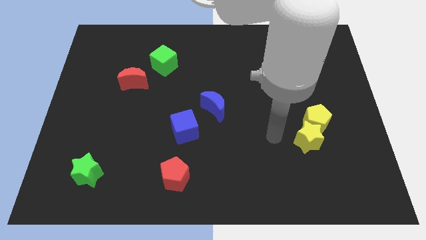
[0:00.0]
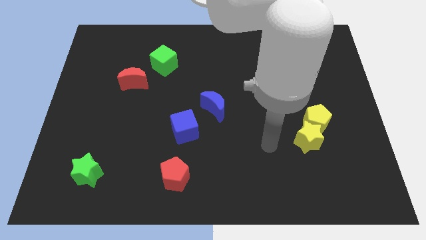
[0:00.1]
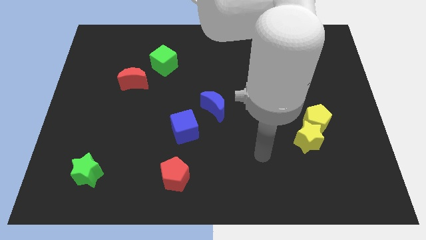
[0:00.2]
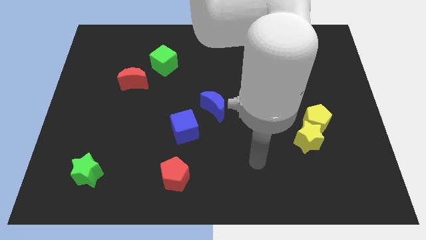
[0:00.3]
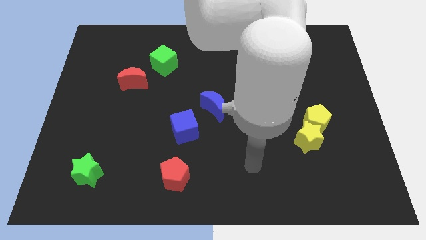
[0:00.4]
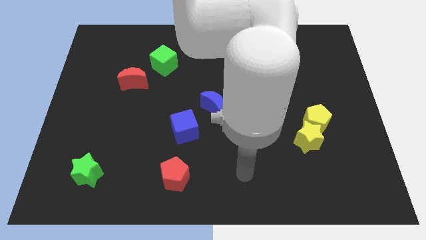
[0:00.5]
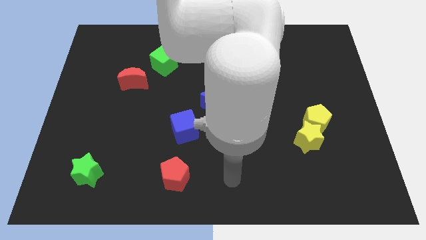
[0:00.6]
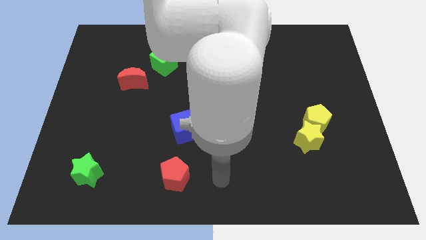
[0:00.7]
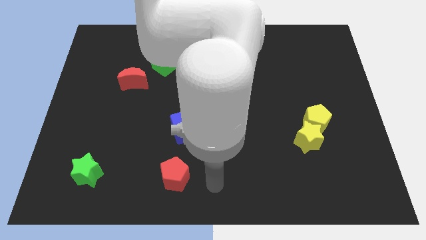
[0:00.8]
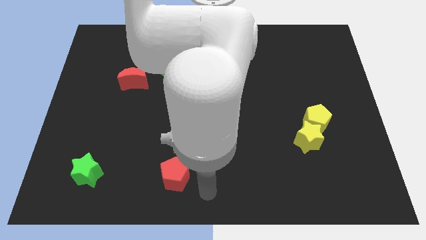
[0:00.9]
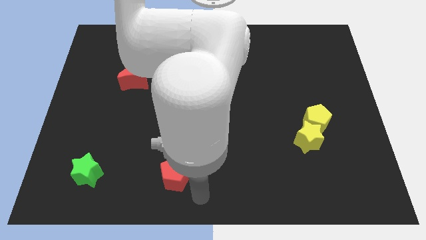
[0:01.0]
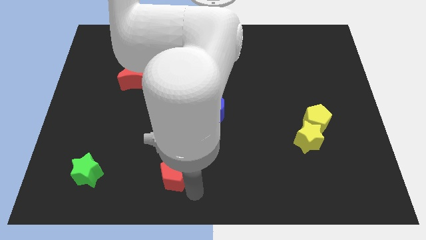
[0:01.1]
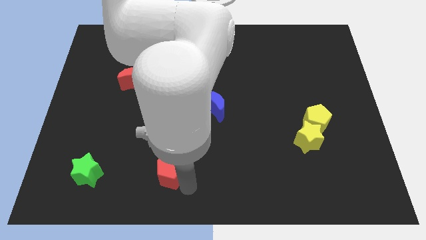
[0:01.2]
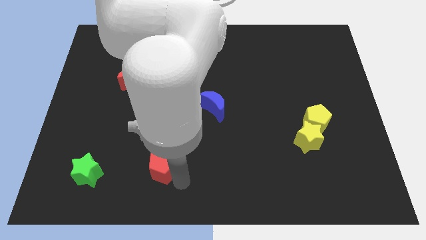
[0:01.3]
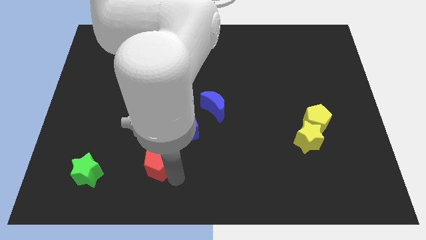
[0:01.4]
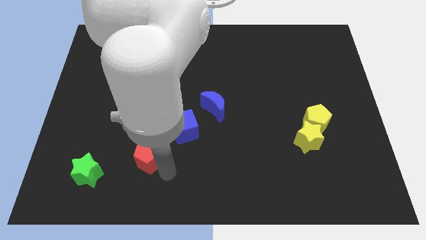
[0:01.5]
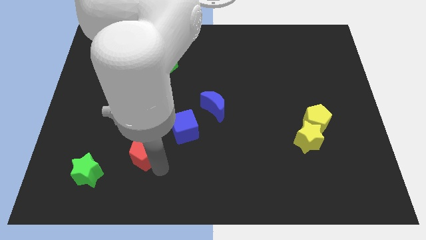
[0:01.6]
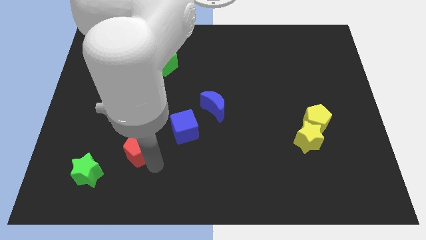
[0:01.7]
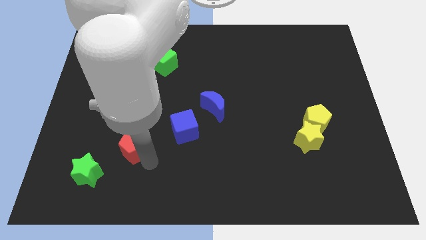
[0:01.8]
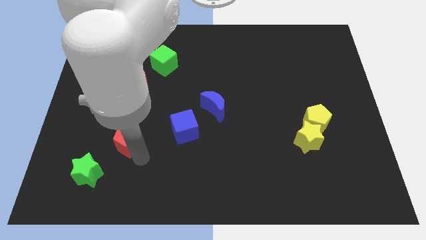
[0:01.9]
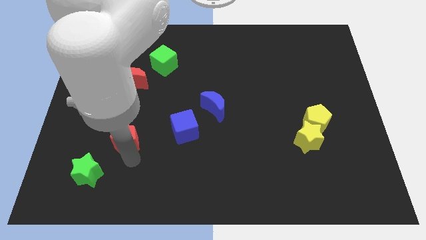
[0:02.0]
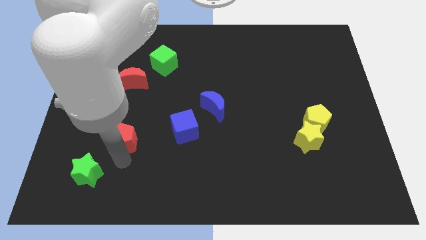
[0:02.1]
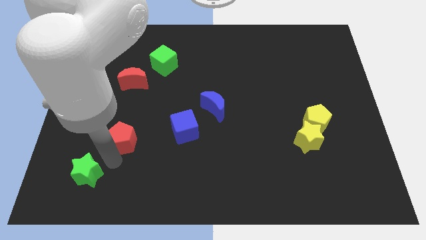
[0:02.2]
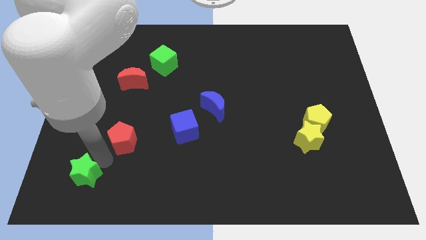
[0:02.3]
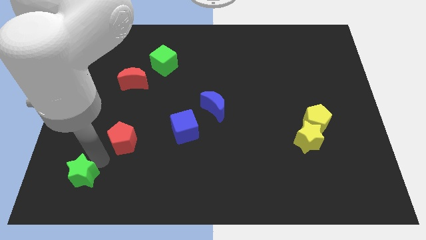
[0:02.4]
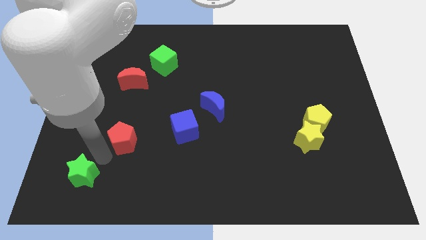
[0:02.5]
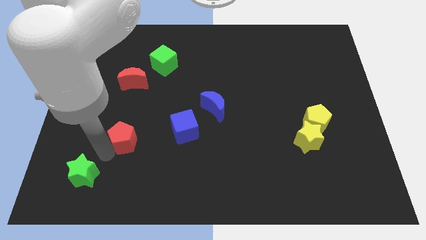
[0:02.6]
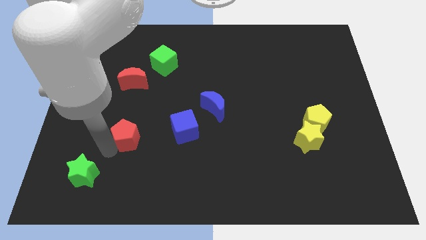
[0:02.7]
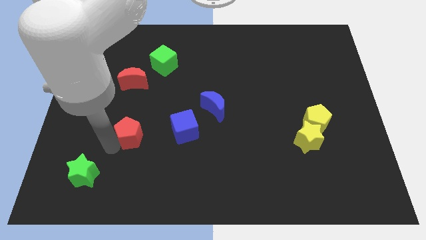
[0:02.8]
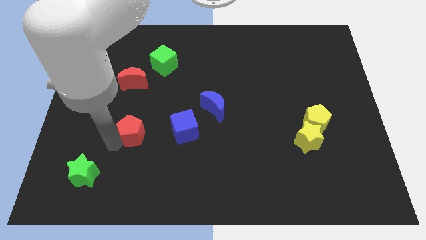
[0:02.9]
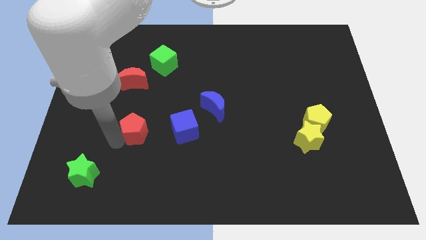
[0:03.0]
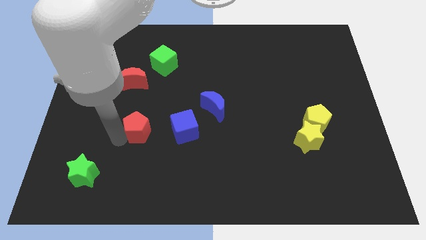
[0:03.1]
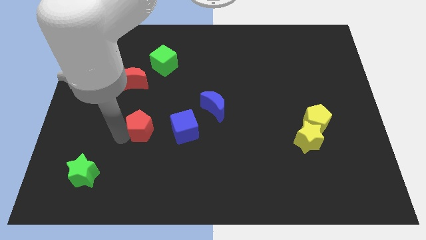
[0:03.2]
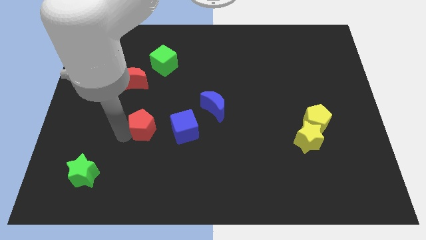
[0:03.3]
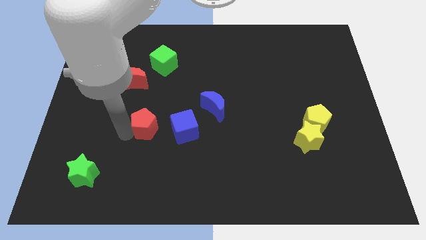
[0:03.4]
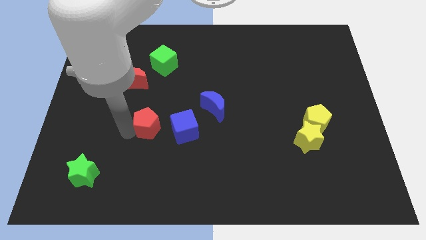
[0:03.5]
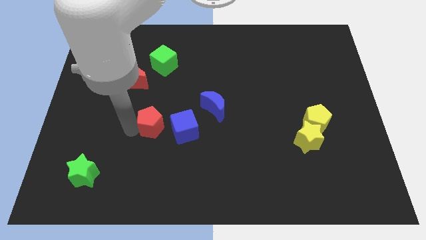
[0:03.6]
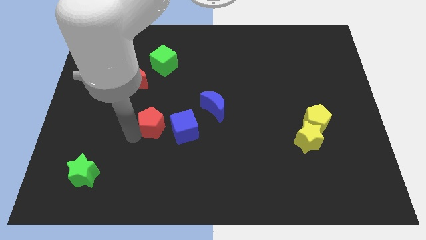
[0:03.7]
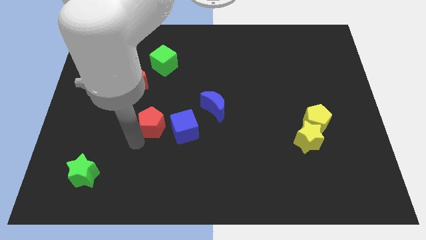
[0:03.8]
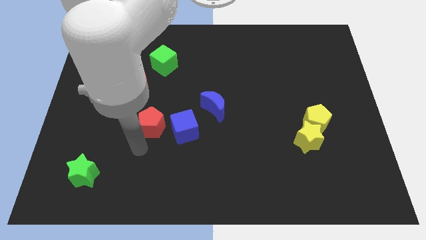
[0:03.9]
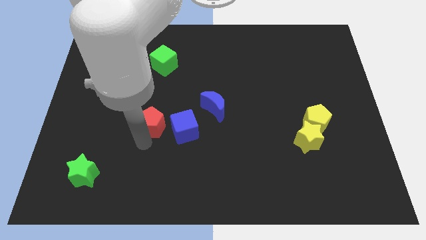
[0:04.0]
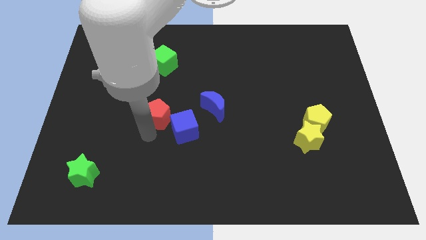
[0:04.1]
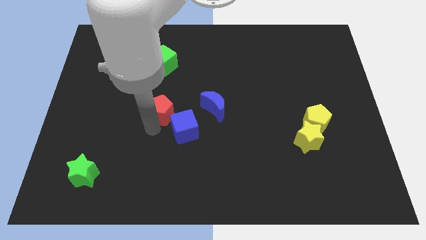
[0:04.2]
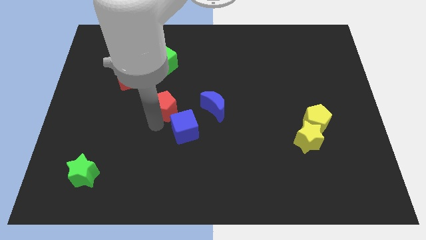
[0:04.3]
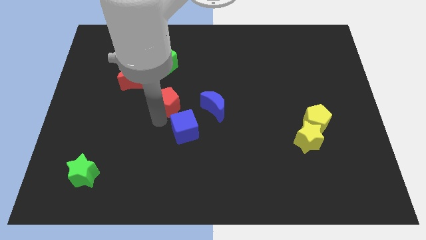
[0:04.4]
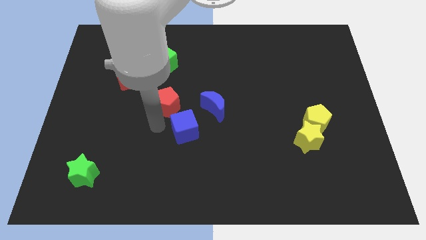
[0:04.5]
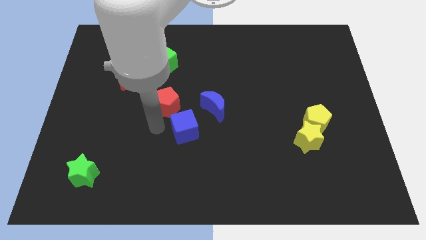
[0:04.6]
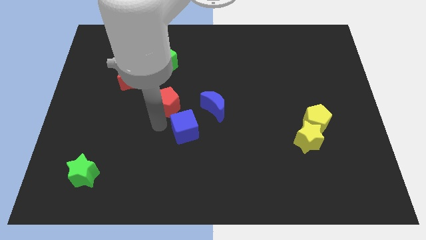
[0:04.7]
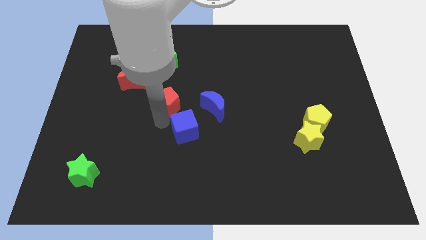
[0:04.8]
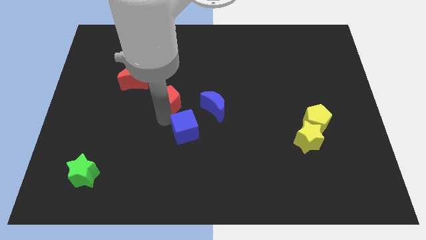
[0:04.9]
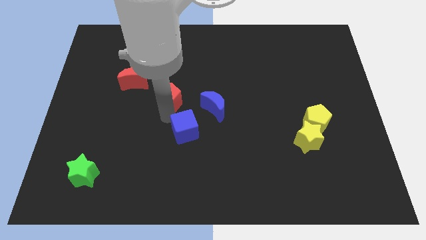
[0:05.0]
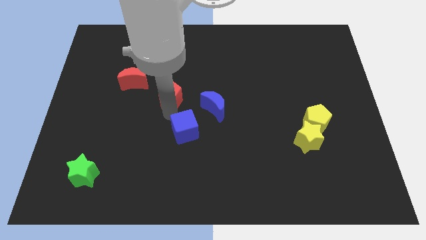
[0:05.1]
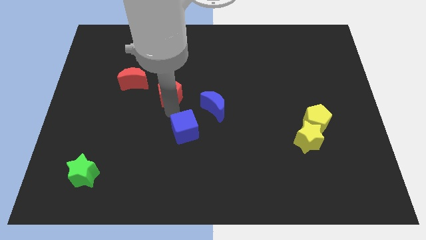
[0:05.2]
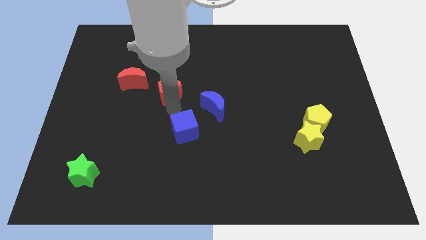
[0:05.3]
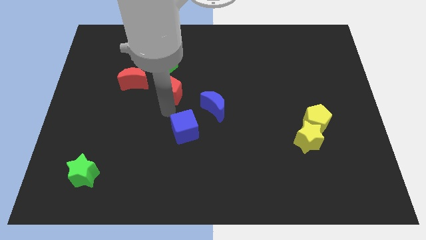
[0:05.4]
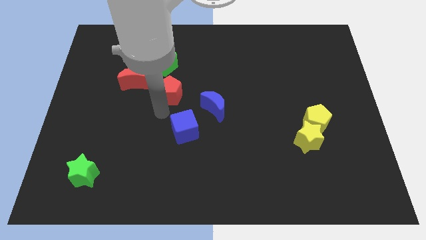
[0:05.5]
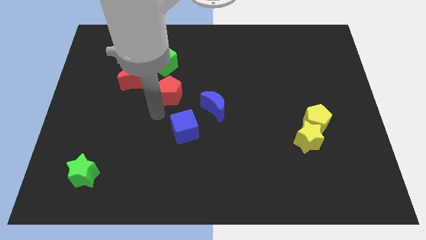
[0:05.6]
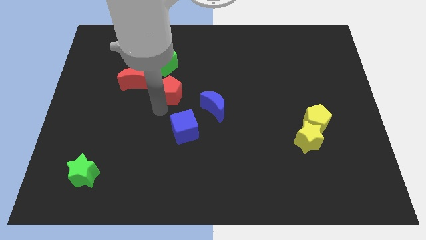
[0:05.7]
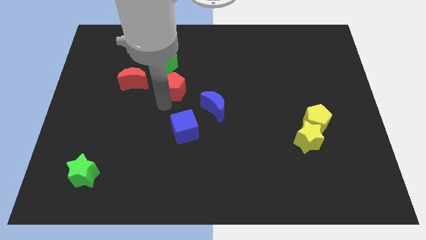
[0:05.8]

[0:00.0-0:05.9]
push the red pentagon to the bottom right side of the green cube

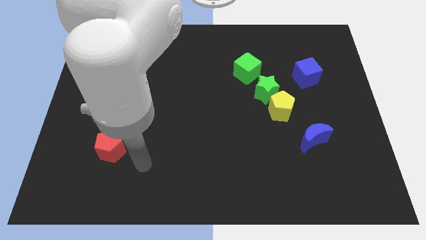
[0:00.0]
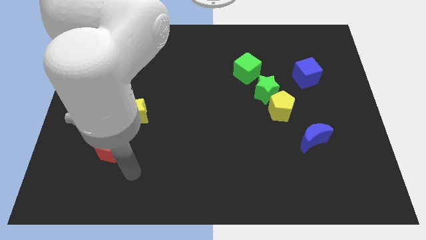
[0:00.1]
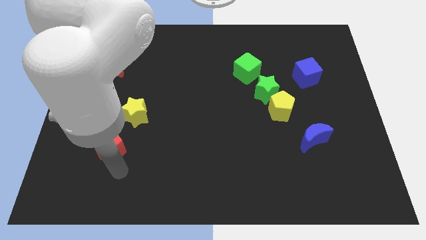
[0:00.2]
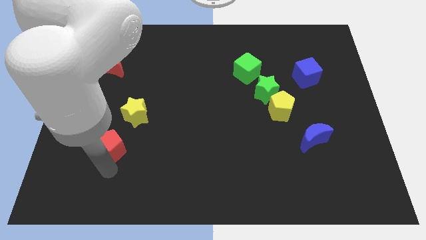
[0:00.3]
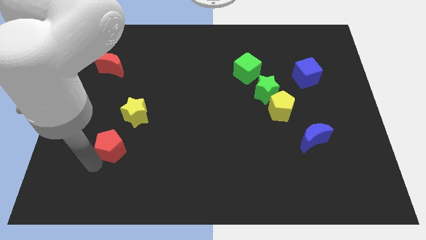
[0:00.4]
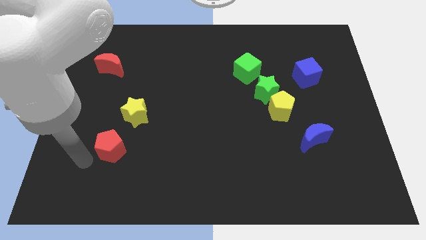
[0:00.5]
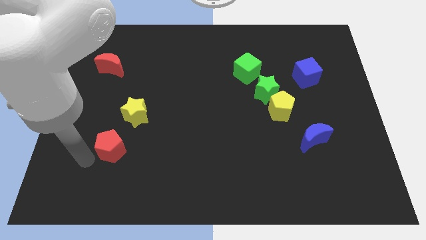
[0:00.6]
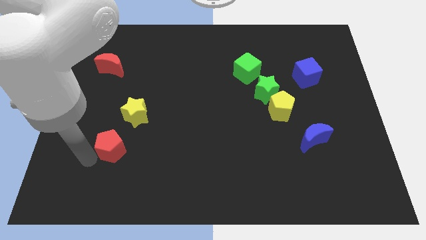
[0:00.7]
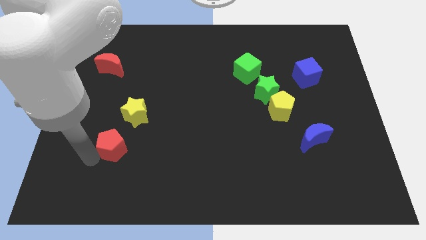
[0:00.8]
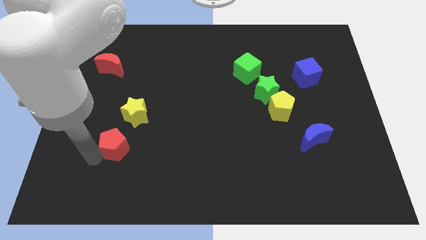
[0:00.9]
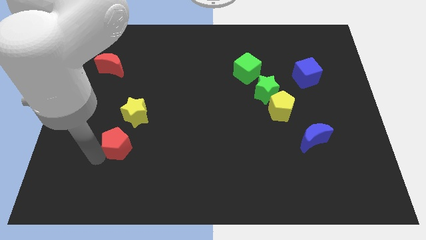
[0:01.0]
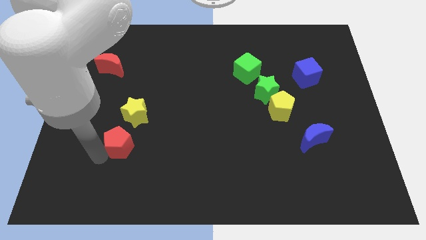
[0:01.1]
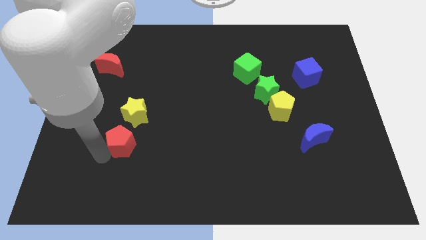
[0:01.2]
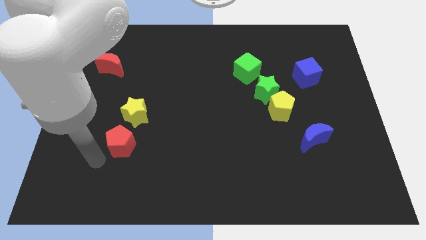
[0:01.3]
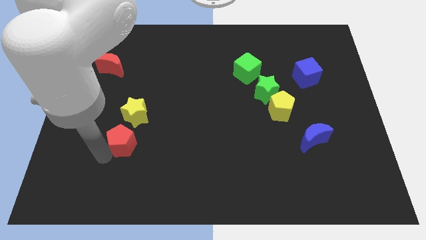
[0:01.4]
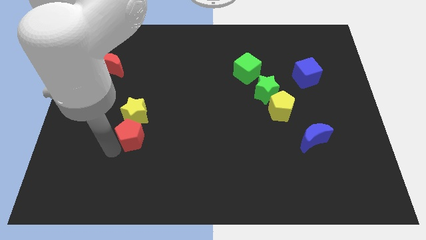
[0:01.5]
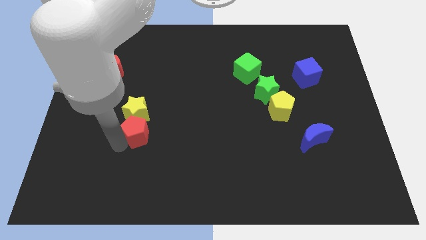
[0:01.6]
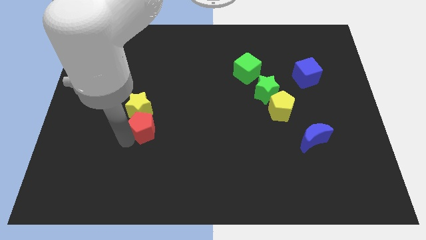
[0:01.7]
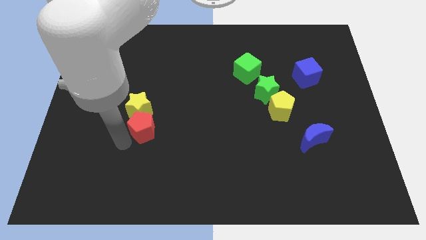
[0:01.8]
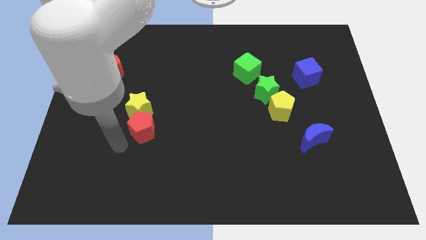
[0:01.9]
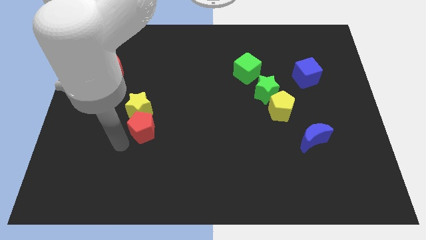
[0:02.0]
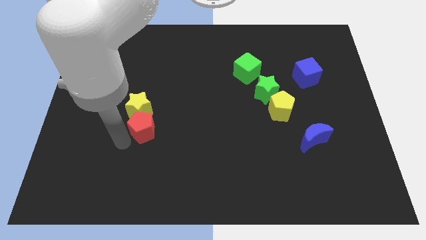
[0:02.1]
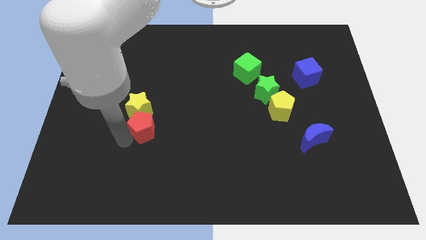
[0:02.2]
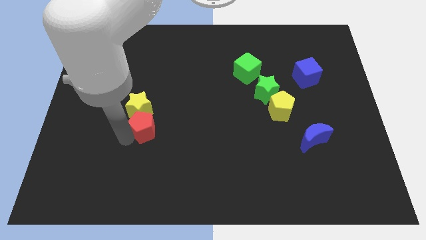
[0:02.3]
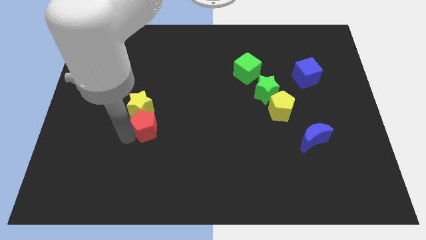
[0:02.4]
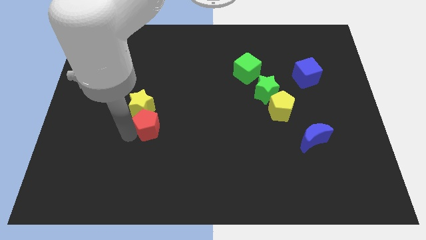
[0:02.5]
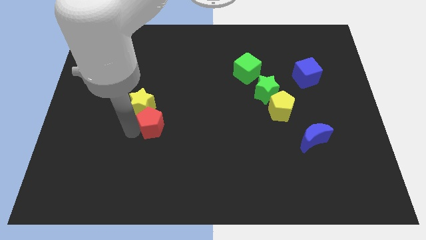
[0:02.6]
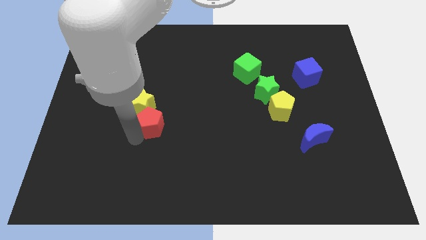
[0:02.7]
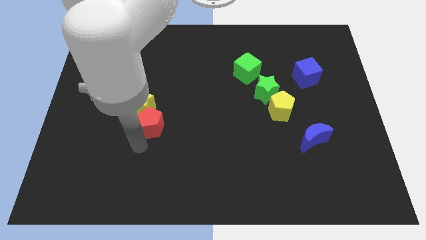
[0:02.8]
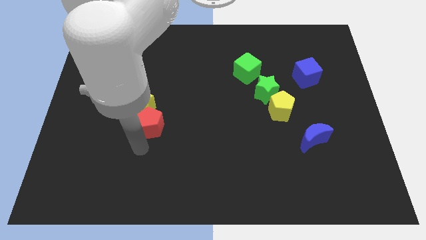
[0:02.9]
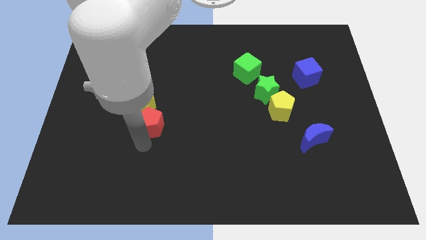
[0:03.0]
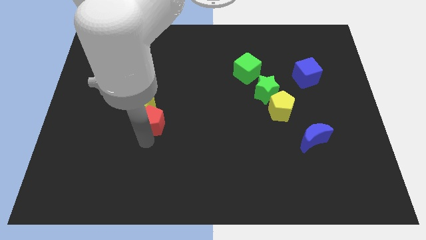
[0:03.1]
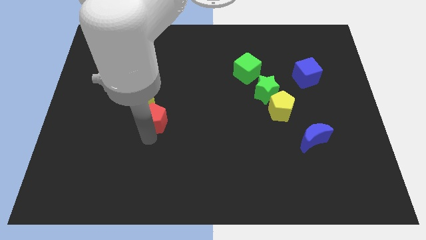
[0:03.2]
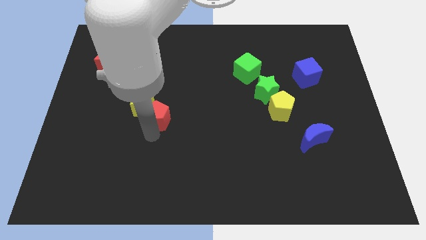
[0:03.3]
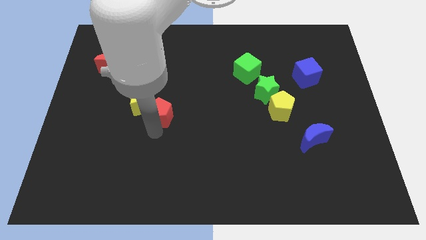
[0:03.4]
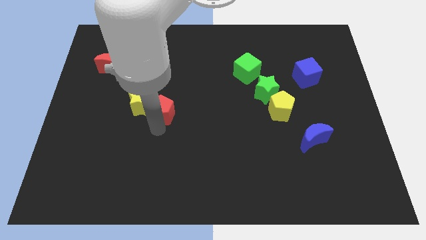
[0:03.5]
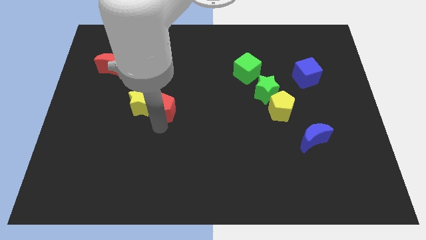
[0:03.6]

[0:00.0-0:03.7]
put the red pentagon to the top right side of the yellow star
